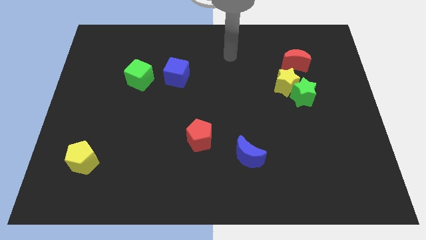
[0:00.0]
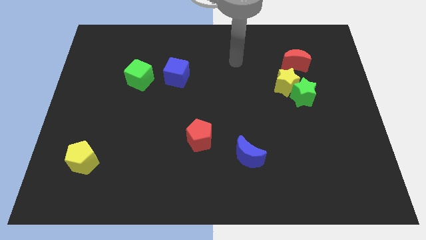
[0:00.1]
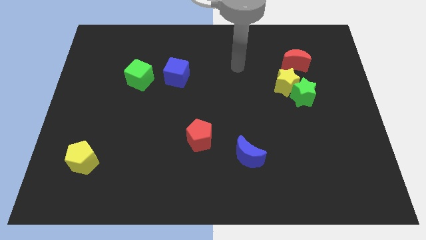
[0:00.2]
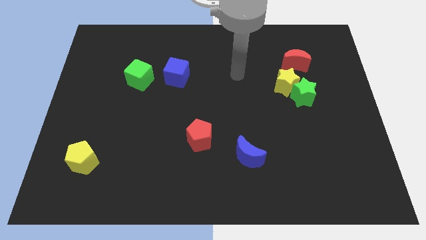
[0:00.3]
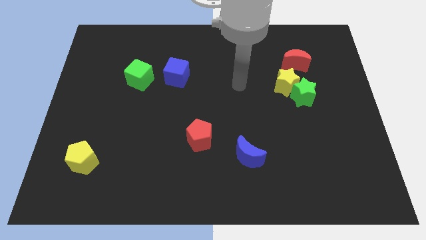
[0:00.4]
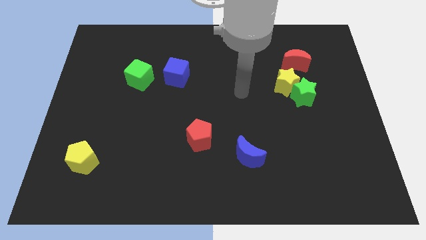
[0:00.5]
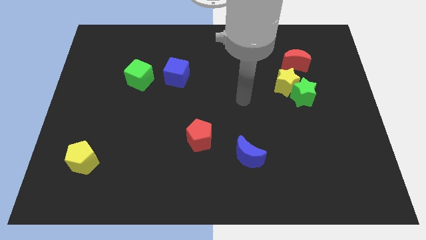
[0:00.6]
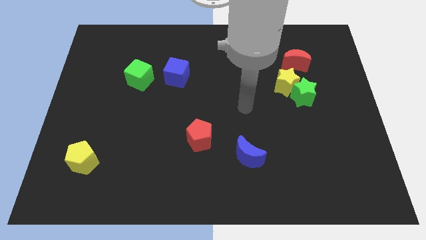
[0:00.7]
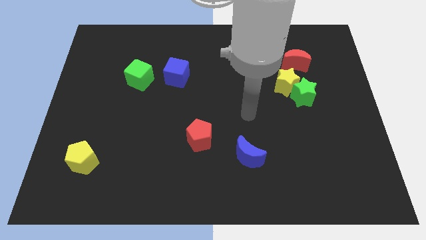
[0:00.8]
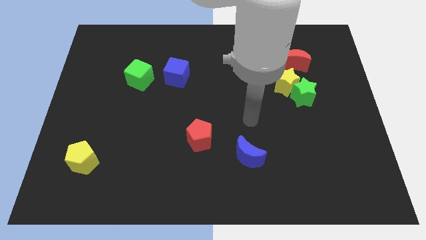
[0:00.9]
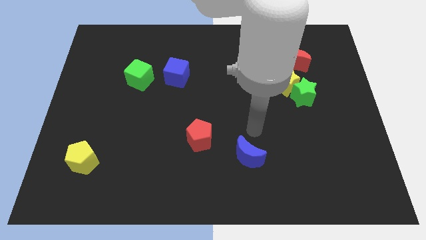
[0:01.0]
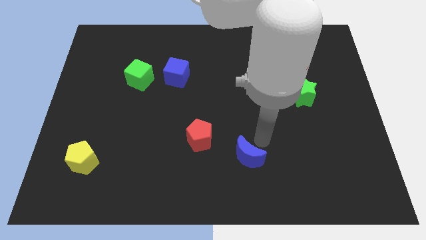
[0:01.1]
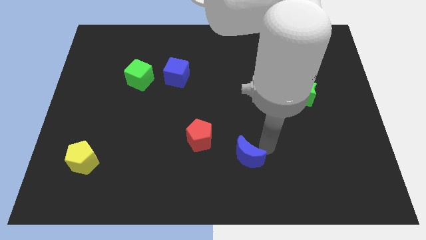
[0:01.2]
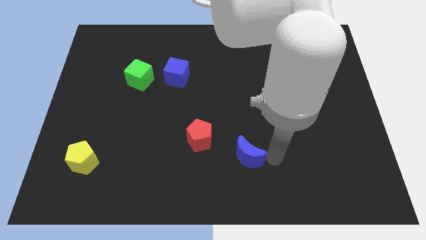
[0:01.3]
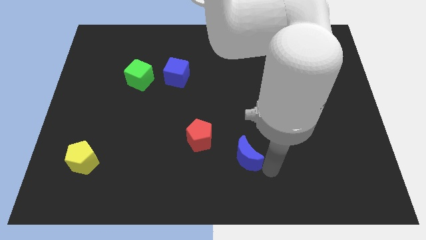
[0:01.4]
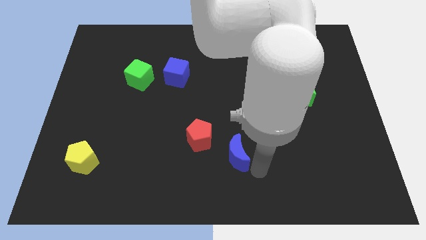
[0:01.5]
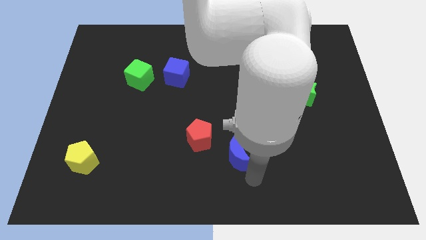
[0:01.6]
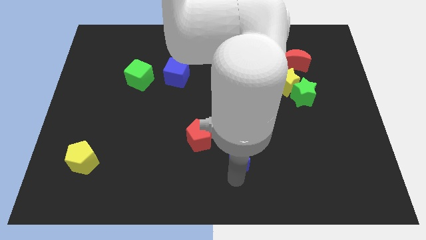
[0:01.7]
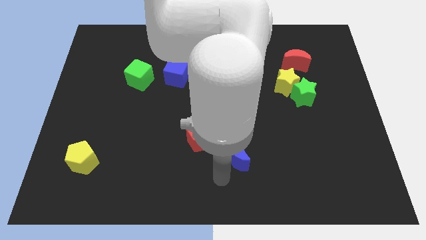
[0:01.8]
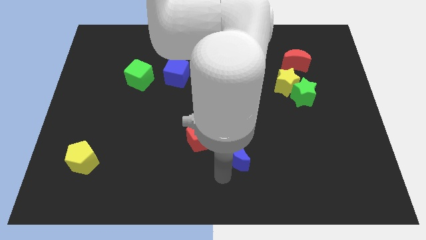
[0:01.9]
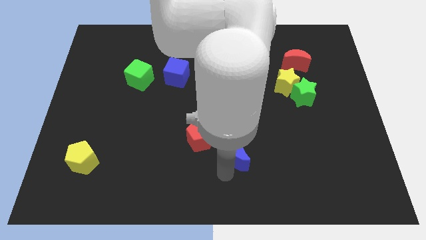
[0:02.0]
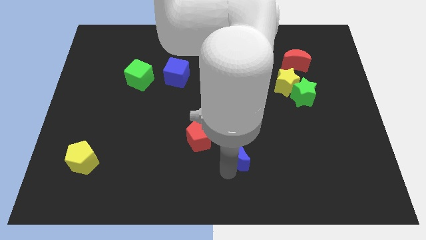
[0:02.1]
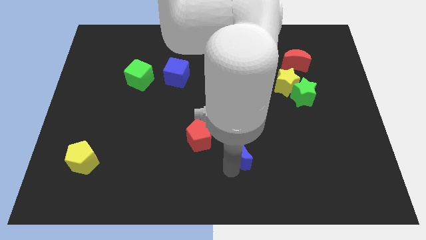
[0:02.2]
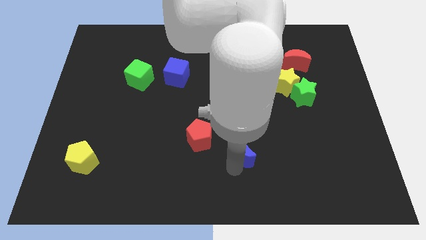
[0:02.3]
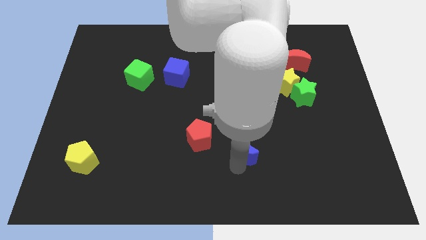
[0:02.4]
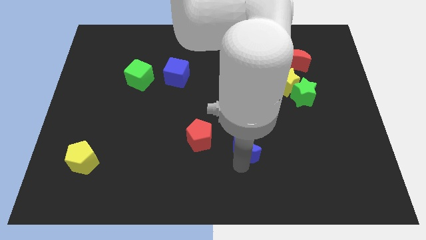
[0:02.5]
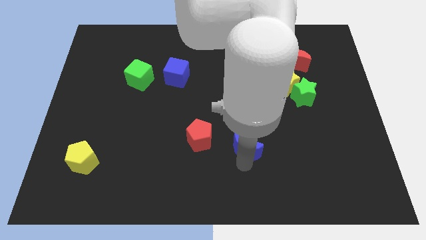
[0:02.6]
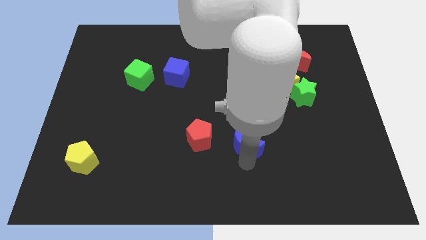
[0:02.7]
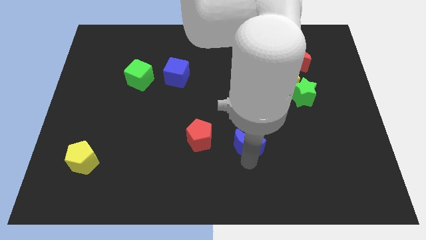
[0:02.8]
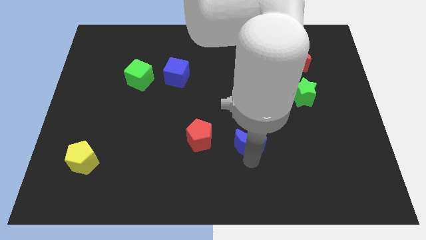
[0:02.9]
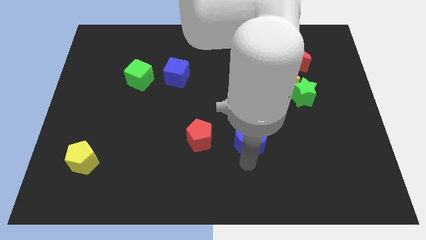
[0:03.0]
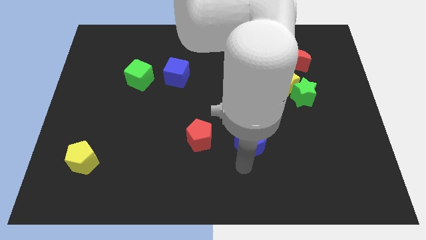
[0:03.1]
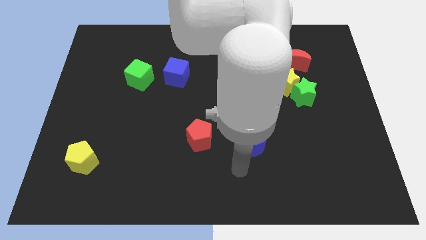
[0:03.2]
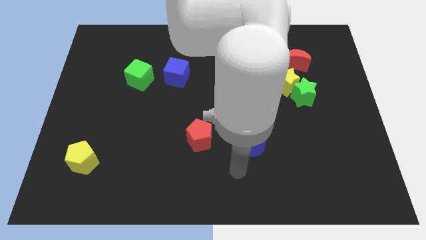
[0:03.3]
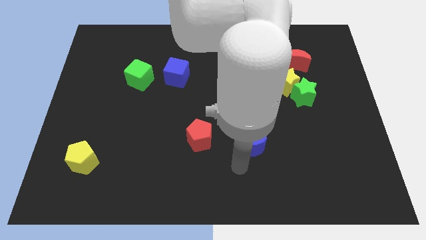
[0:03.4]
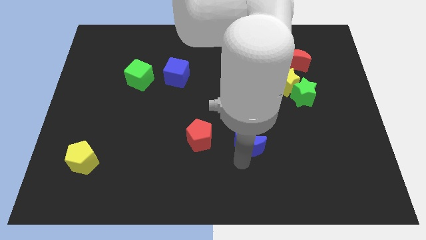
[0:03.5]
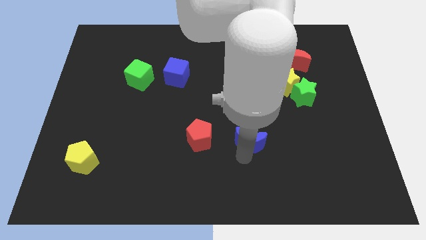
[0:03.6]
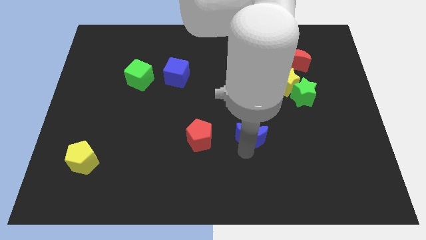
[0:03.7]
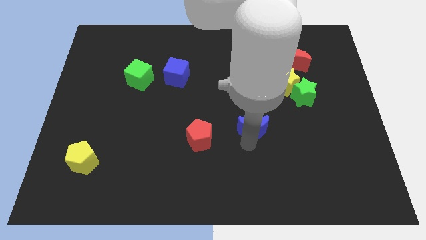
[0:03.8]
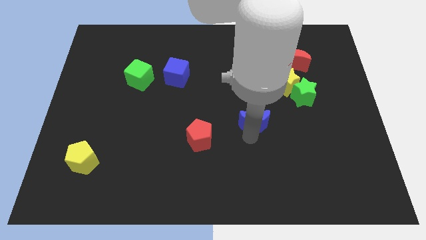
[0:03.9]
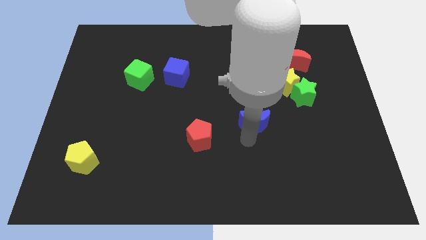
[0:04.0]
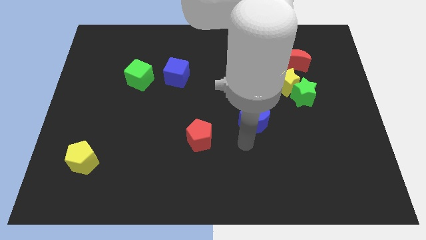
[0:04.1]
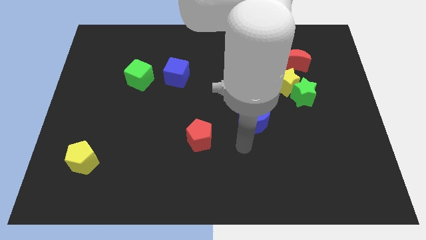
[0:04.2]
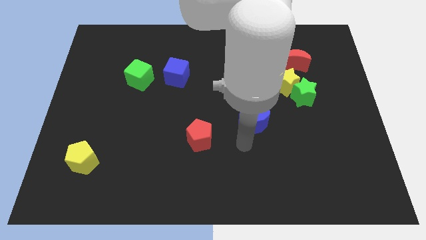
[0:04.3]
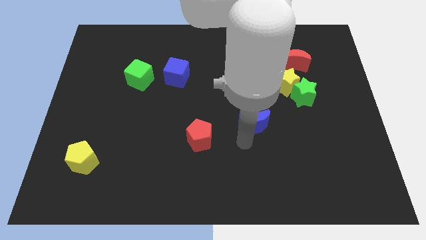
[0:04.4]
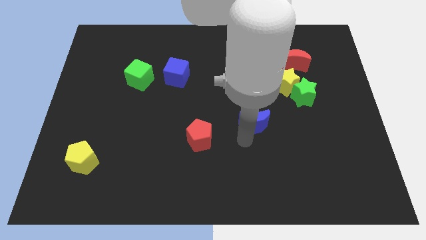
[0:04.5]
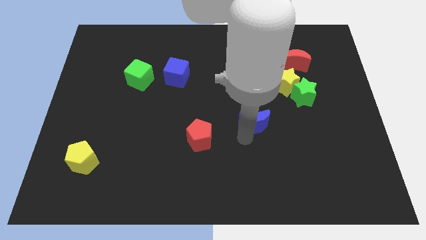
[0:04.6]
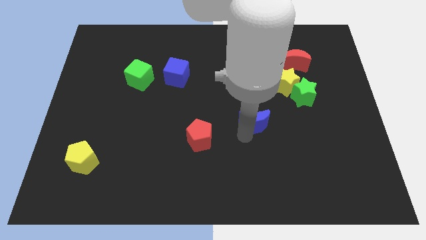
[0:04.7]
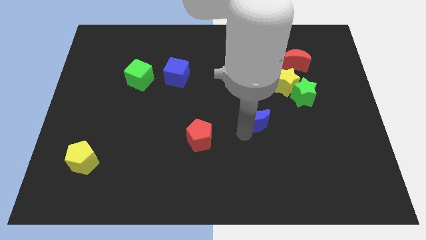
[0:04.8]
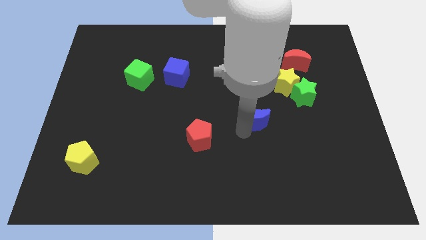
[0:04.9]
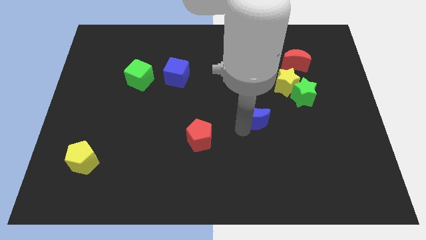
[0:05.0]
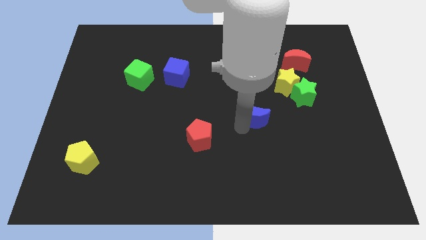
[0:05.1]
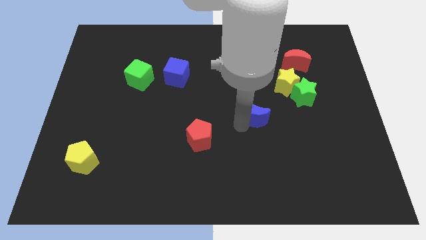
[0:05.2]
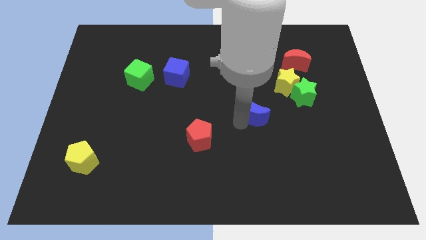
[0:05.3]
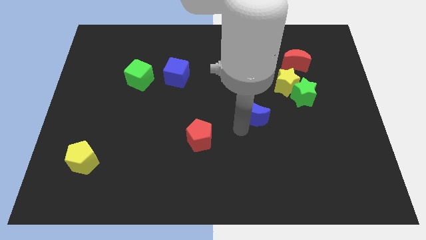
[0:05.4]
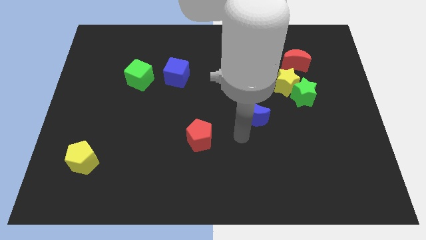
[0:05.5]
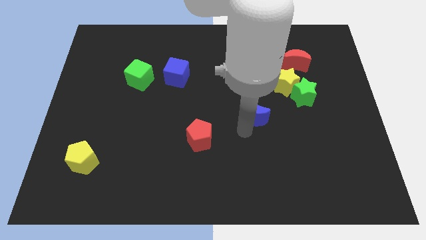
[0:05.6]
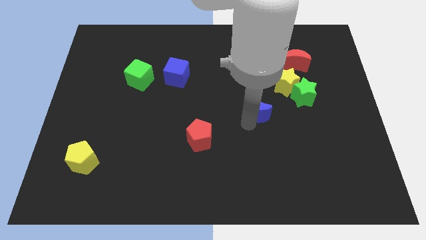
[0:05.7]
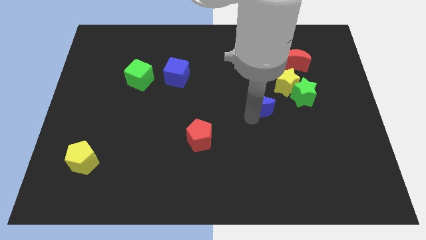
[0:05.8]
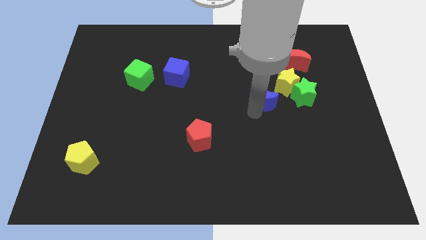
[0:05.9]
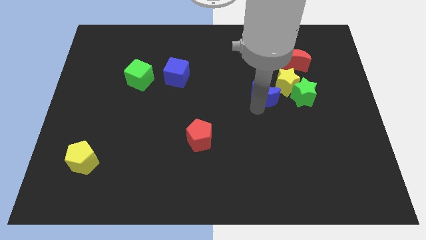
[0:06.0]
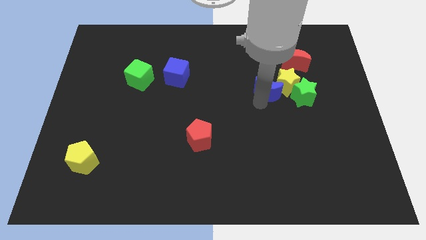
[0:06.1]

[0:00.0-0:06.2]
slide the blue moon to the bottom left of the red moon

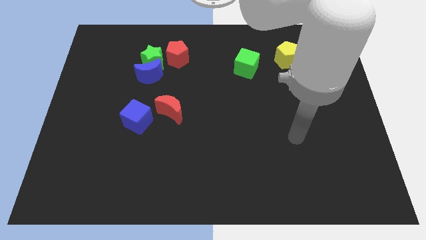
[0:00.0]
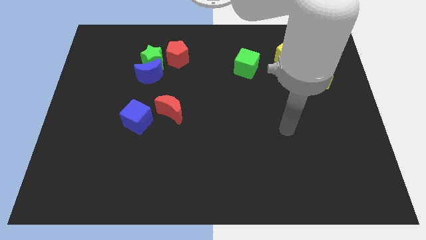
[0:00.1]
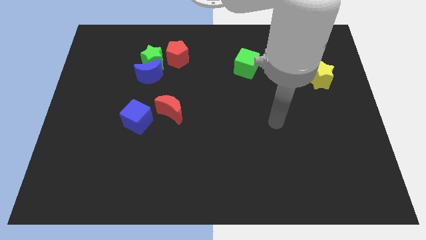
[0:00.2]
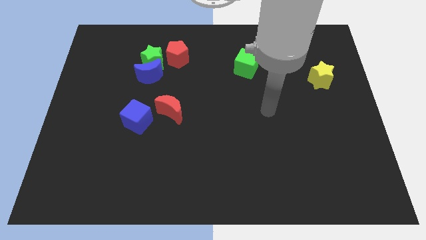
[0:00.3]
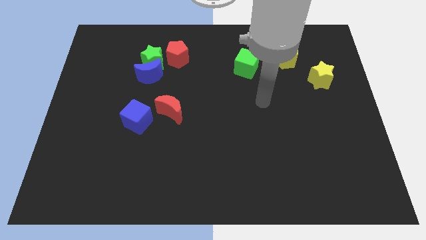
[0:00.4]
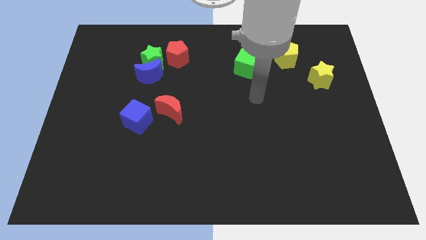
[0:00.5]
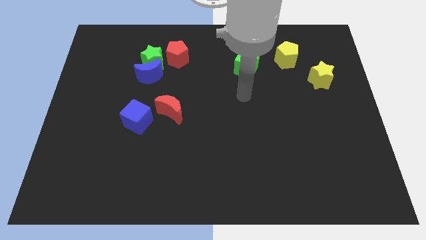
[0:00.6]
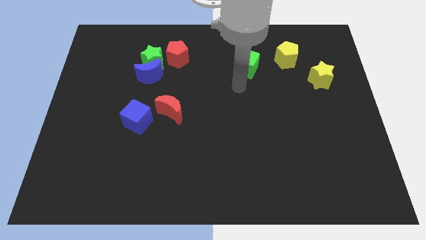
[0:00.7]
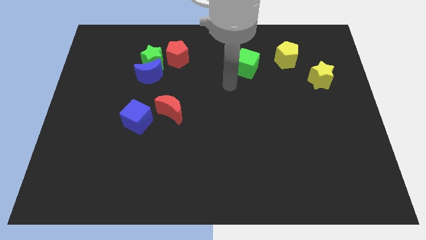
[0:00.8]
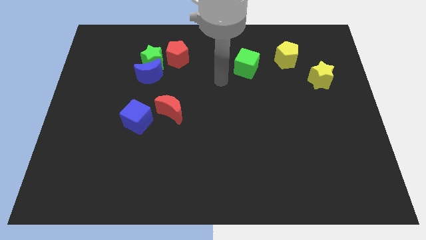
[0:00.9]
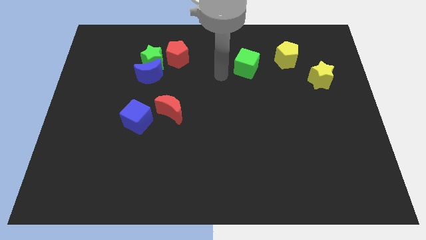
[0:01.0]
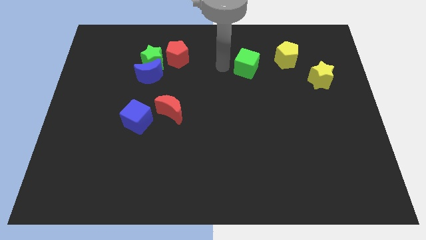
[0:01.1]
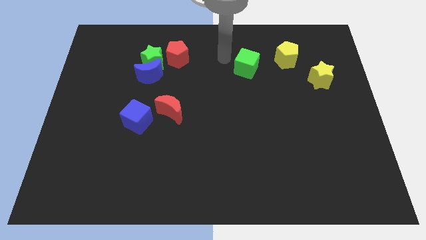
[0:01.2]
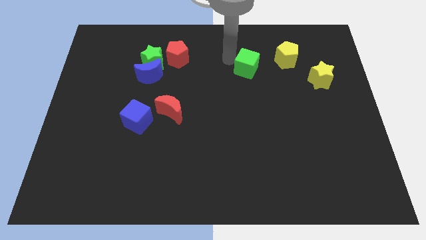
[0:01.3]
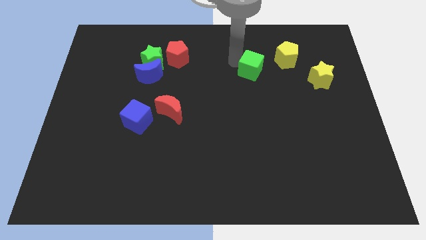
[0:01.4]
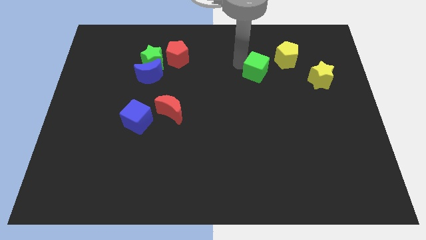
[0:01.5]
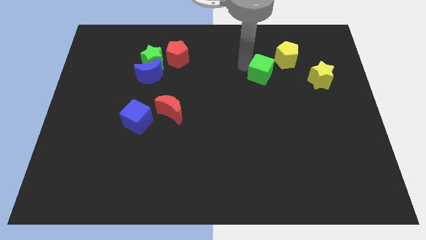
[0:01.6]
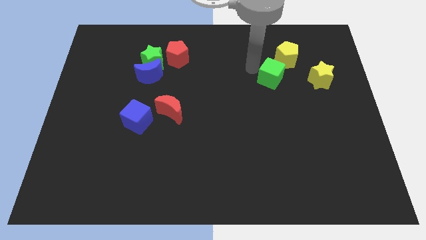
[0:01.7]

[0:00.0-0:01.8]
move the green cube below the yellow pentagon
